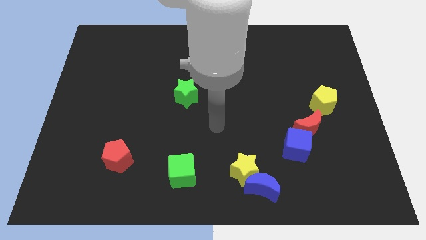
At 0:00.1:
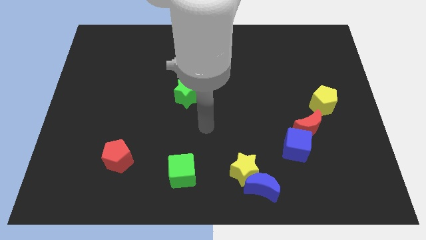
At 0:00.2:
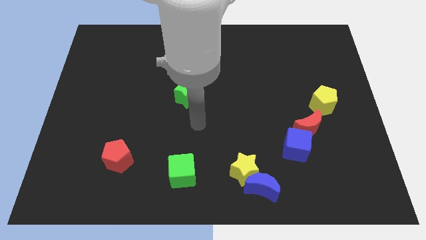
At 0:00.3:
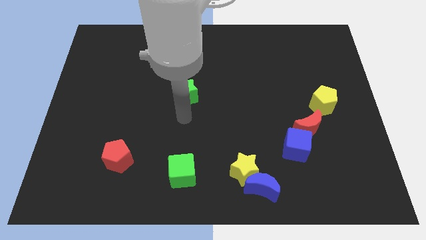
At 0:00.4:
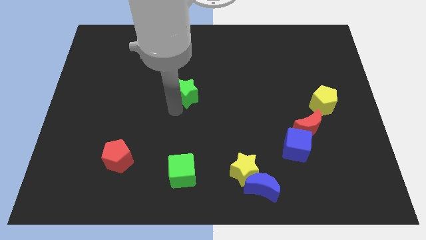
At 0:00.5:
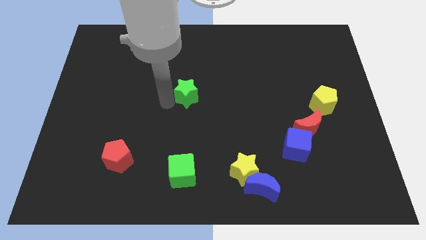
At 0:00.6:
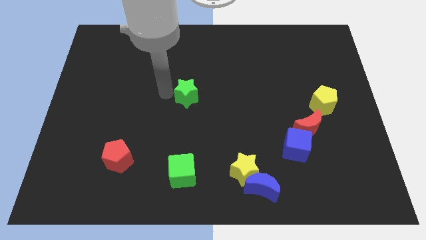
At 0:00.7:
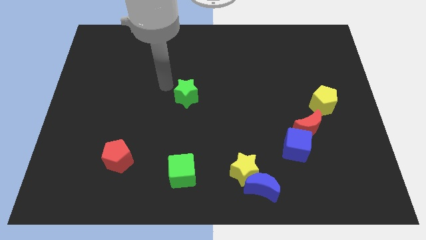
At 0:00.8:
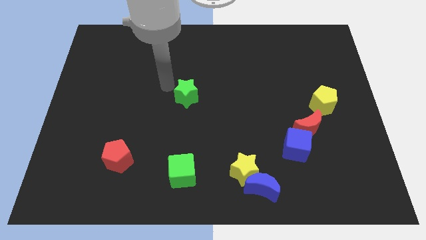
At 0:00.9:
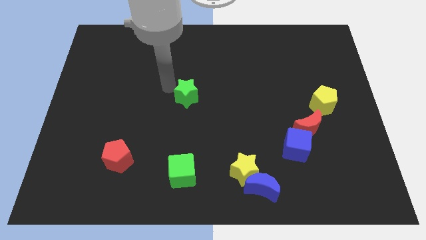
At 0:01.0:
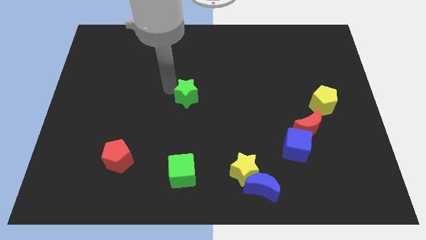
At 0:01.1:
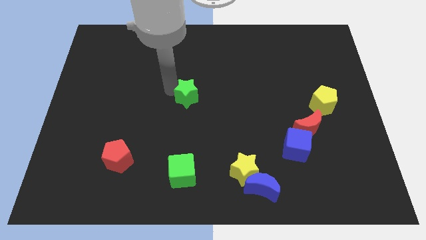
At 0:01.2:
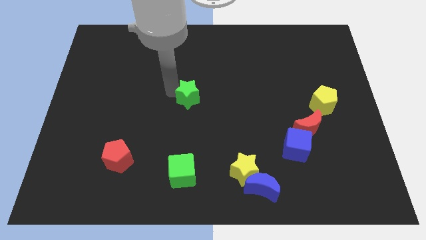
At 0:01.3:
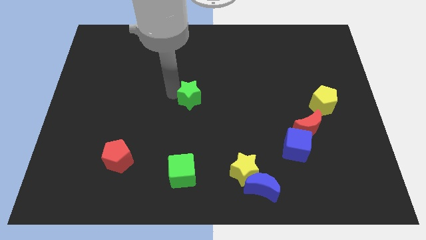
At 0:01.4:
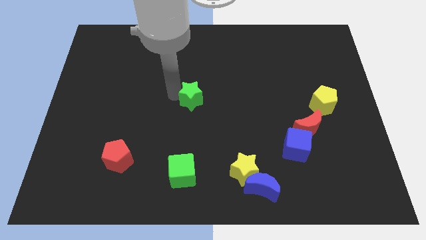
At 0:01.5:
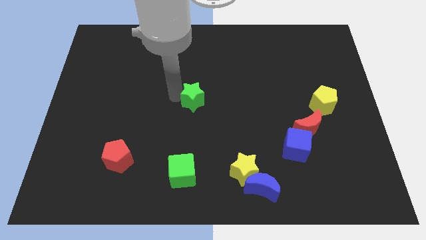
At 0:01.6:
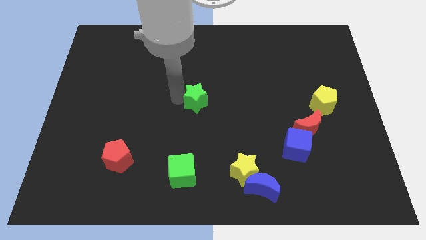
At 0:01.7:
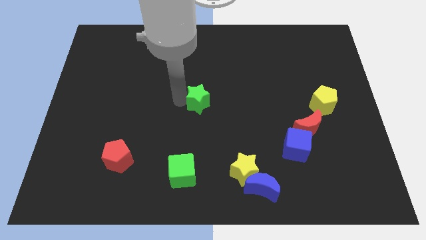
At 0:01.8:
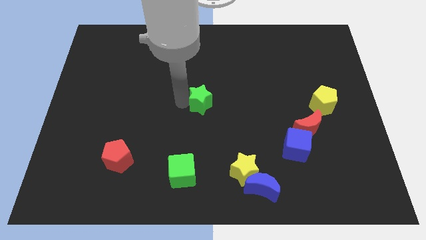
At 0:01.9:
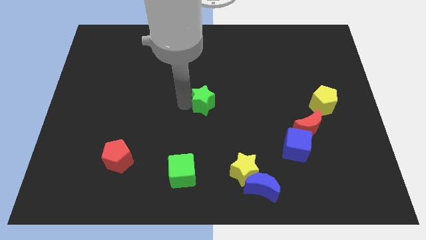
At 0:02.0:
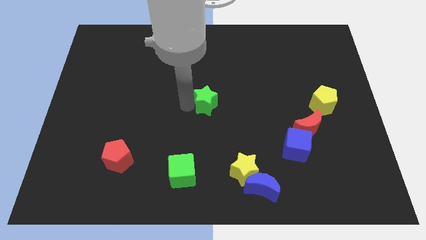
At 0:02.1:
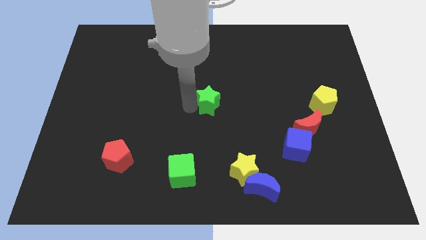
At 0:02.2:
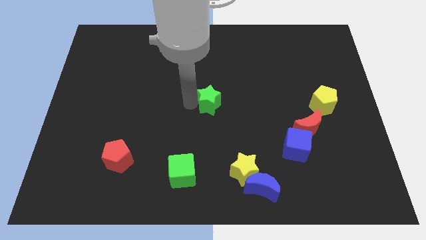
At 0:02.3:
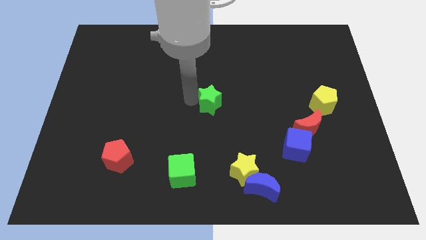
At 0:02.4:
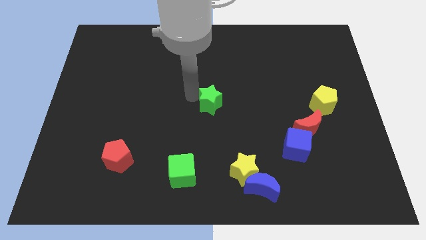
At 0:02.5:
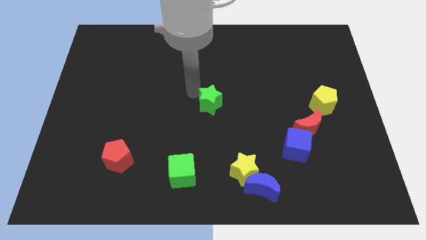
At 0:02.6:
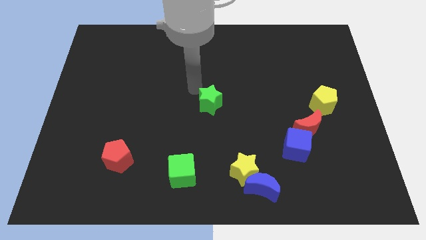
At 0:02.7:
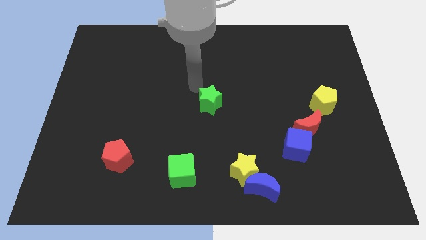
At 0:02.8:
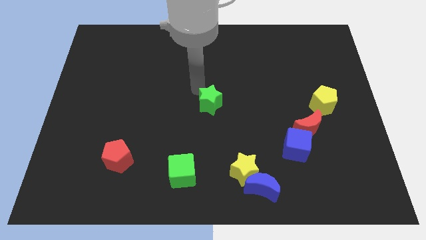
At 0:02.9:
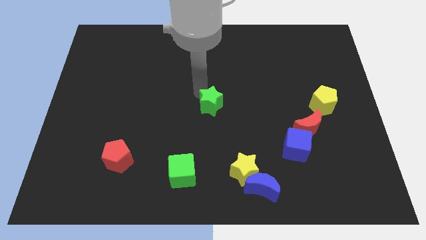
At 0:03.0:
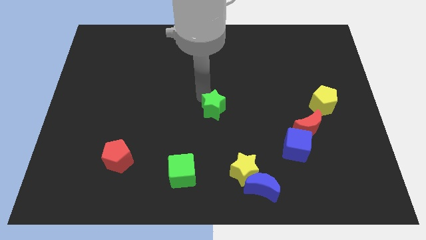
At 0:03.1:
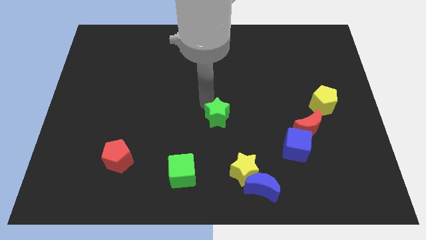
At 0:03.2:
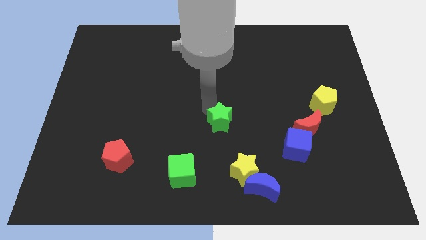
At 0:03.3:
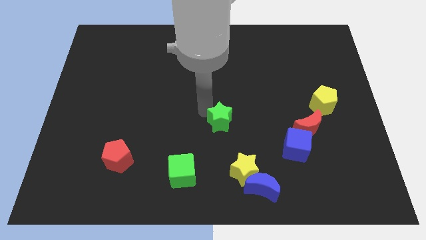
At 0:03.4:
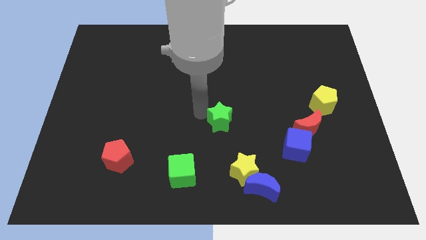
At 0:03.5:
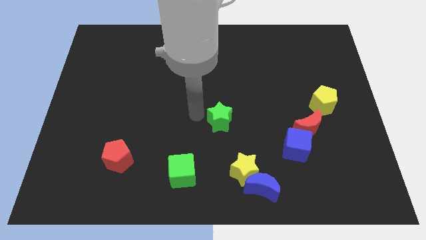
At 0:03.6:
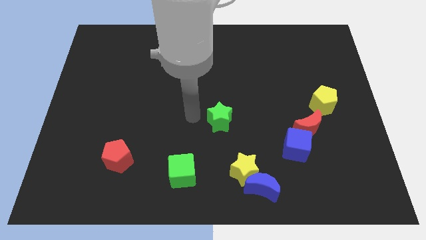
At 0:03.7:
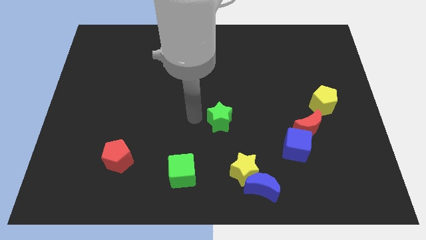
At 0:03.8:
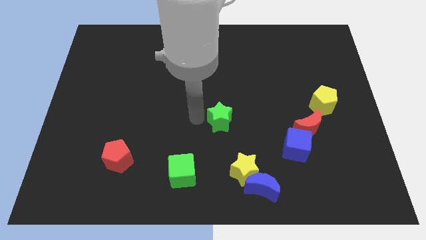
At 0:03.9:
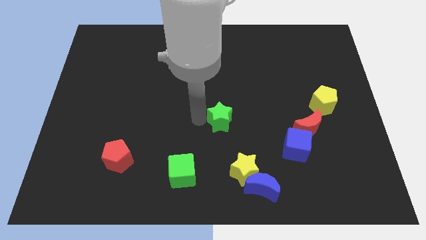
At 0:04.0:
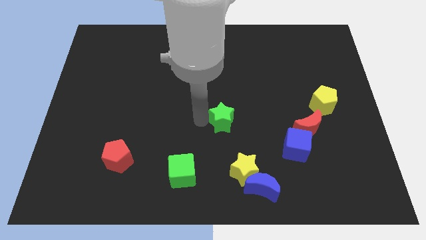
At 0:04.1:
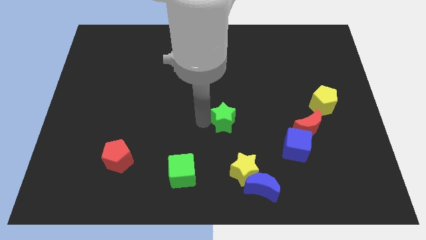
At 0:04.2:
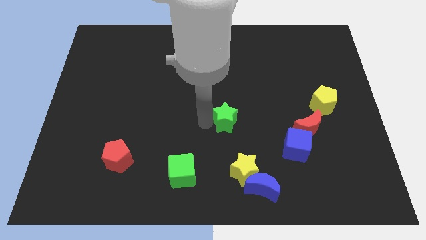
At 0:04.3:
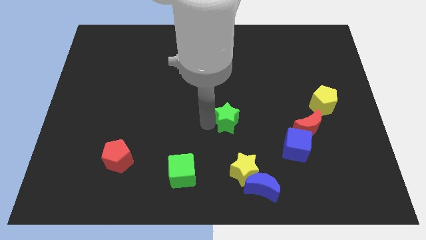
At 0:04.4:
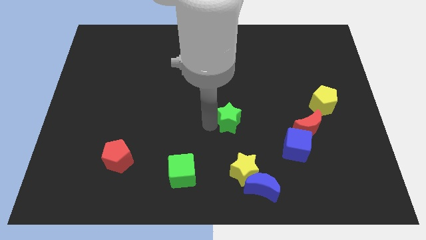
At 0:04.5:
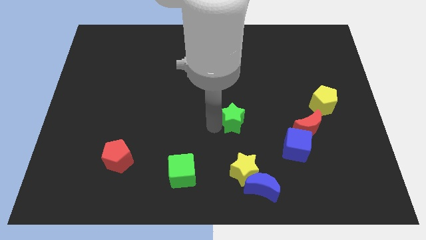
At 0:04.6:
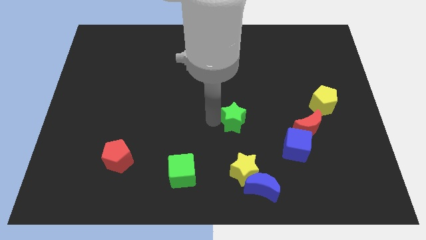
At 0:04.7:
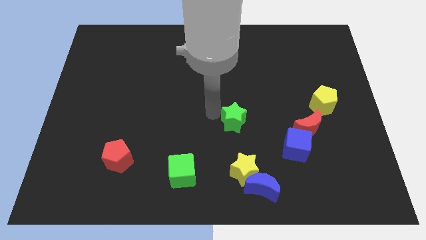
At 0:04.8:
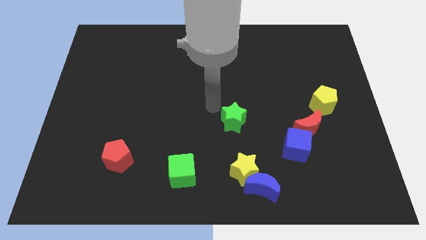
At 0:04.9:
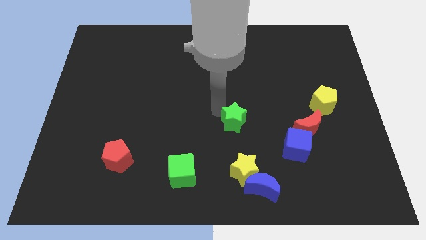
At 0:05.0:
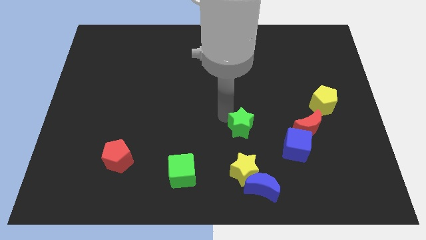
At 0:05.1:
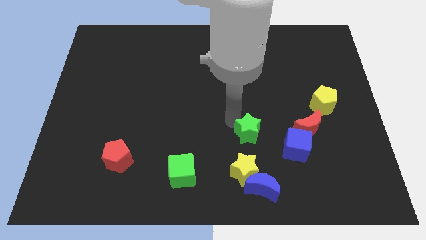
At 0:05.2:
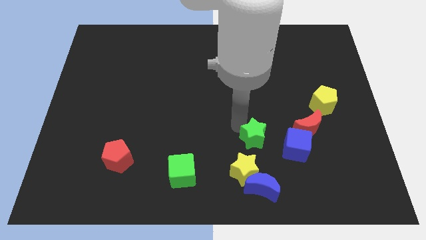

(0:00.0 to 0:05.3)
push the green star to the top right of the yellow star

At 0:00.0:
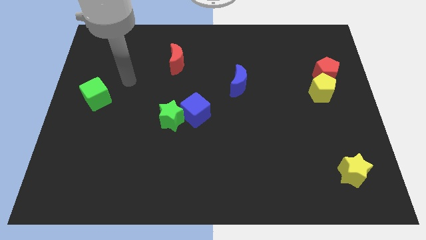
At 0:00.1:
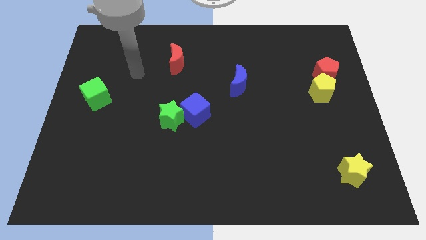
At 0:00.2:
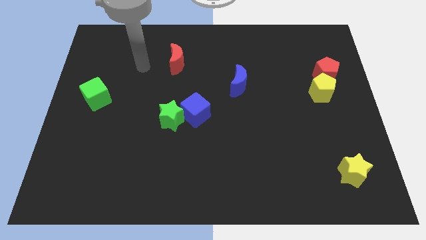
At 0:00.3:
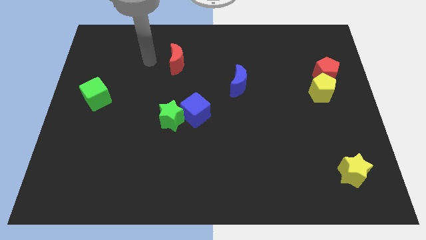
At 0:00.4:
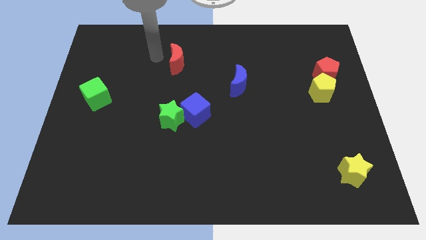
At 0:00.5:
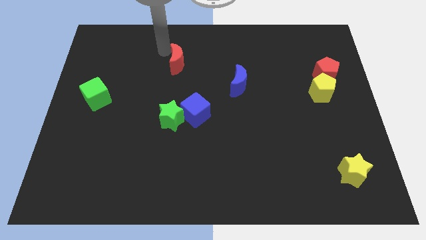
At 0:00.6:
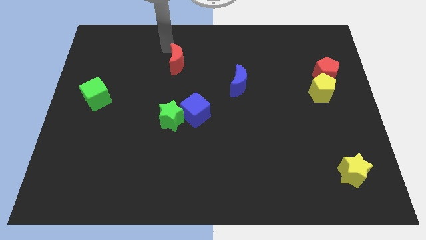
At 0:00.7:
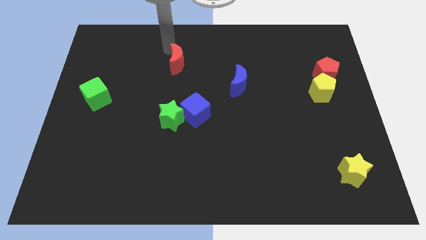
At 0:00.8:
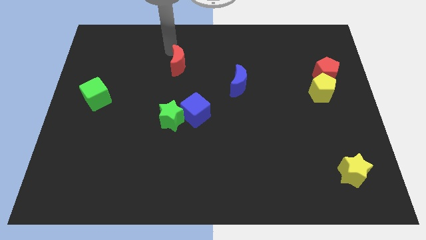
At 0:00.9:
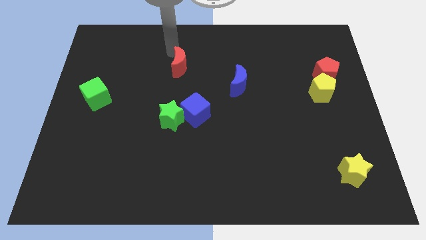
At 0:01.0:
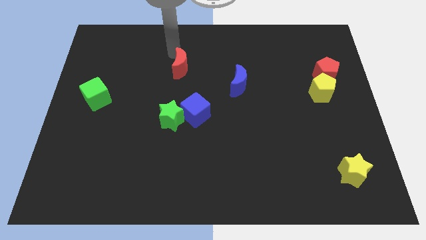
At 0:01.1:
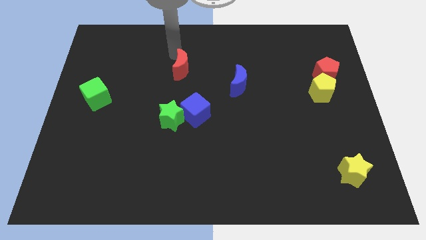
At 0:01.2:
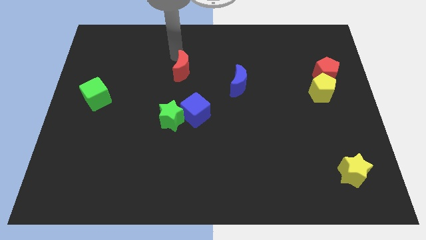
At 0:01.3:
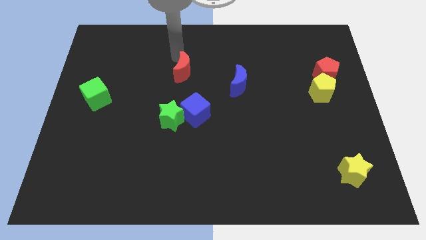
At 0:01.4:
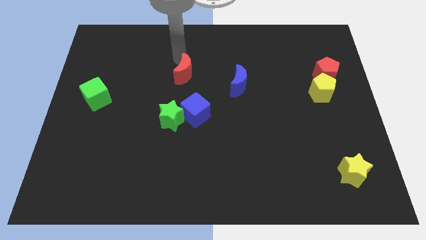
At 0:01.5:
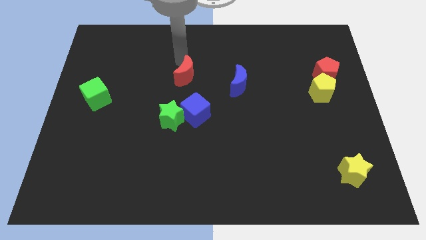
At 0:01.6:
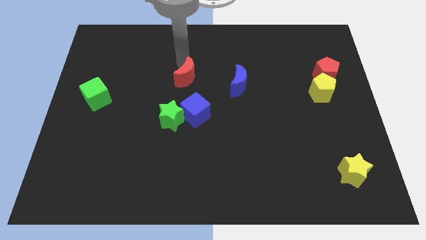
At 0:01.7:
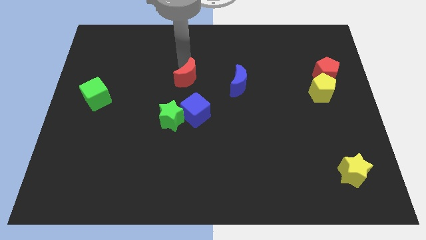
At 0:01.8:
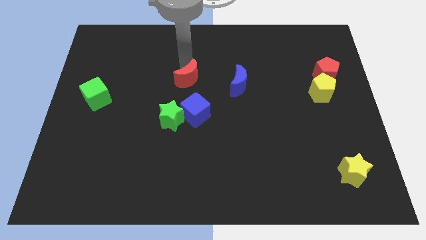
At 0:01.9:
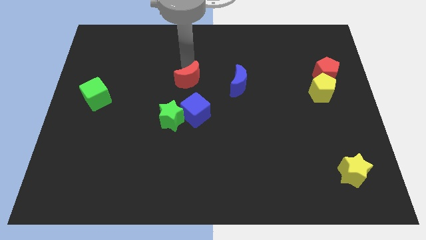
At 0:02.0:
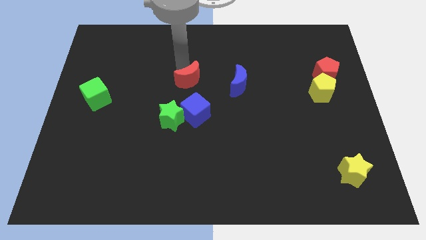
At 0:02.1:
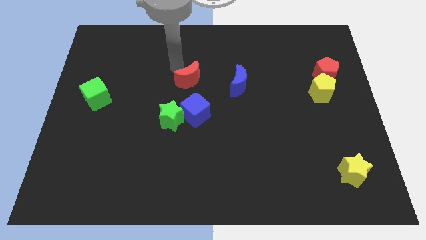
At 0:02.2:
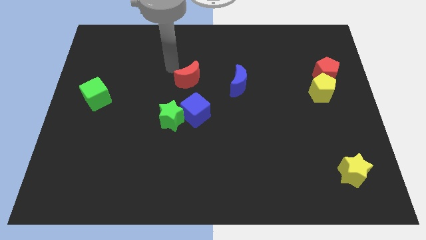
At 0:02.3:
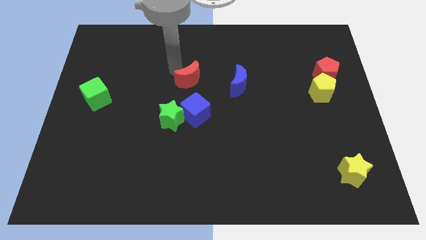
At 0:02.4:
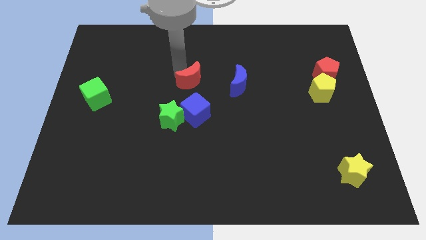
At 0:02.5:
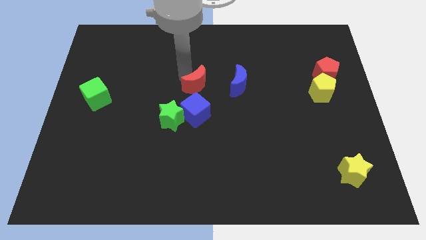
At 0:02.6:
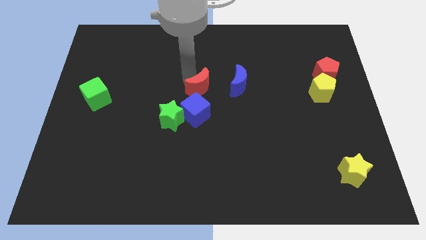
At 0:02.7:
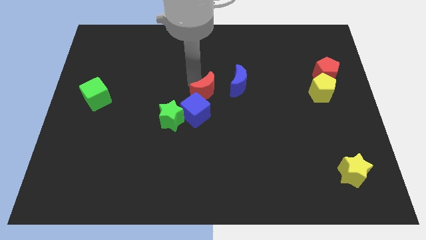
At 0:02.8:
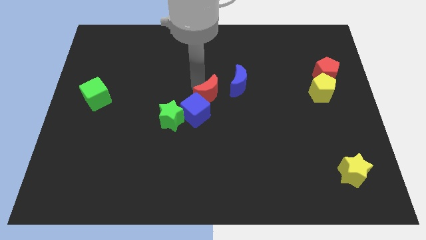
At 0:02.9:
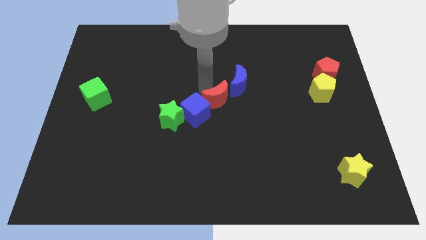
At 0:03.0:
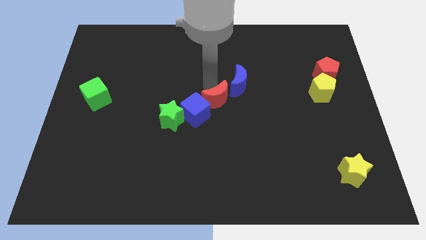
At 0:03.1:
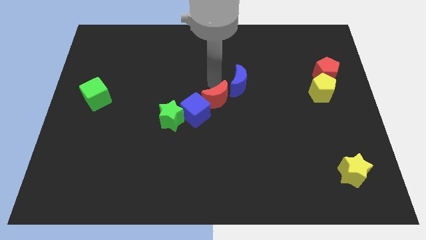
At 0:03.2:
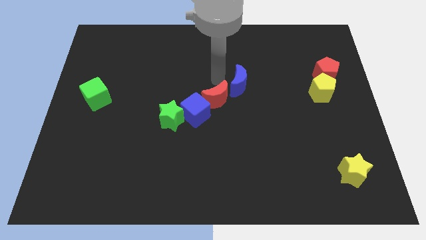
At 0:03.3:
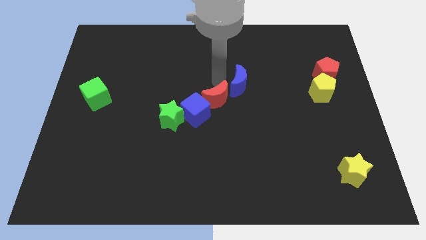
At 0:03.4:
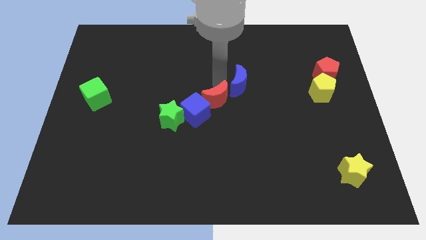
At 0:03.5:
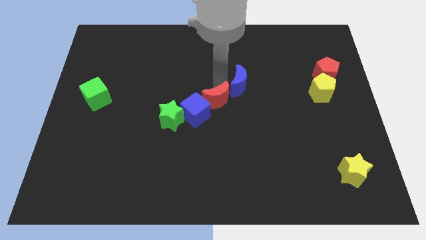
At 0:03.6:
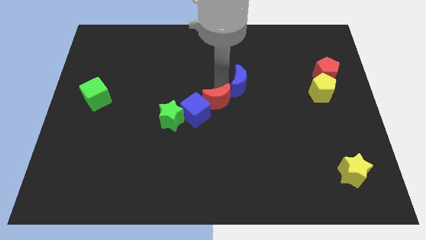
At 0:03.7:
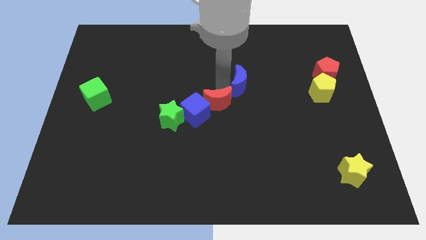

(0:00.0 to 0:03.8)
slide the red moon to the right side of the green star
